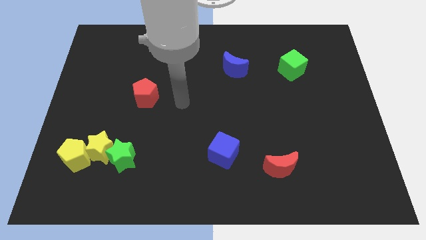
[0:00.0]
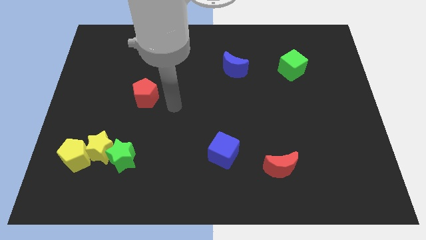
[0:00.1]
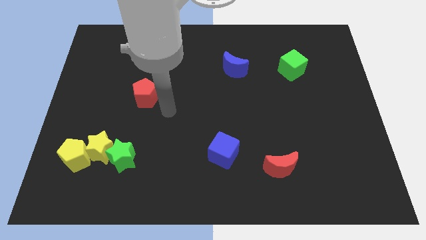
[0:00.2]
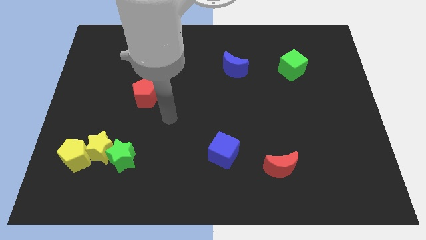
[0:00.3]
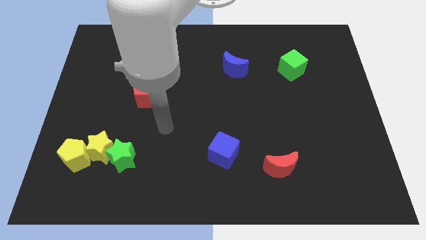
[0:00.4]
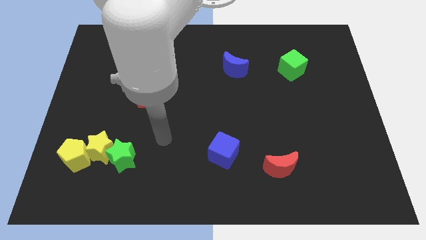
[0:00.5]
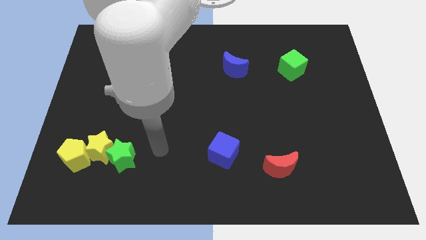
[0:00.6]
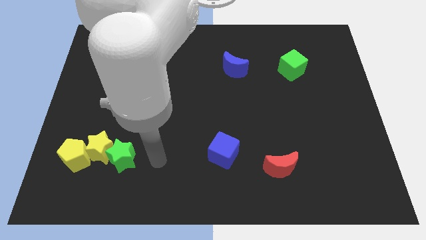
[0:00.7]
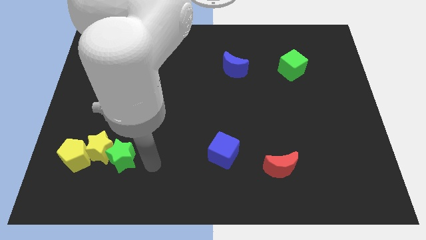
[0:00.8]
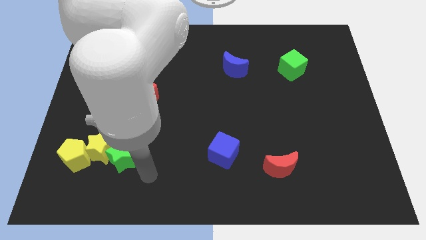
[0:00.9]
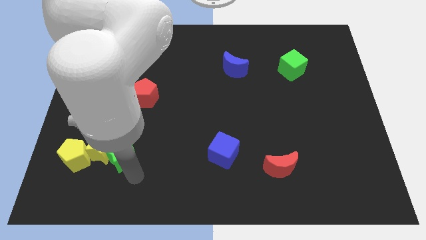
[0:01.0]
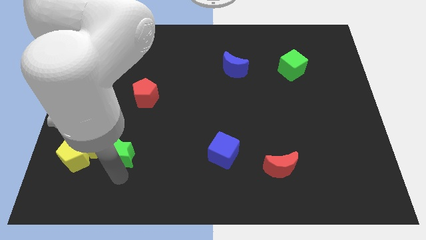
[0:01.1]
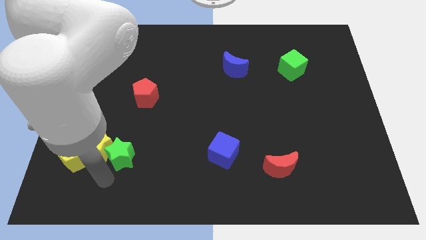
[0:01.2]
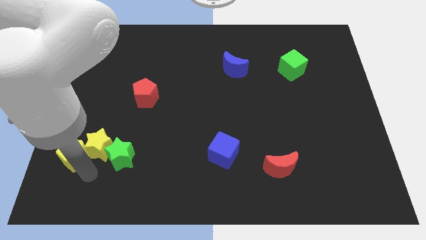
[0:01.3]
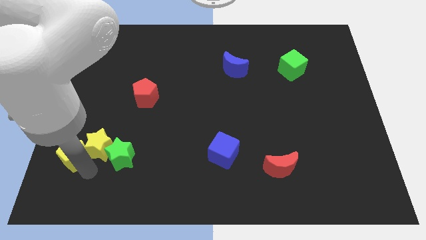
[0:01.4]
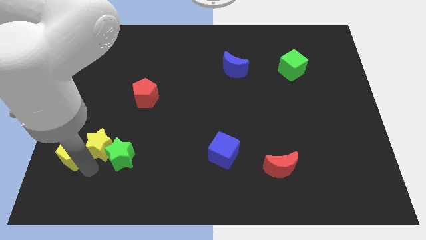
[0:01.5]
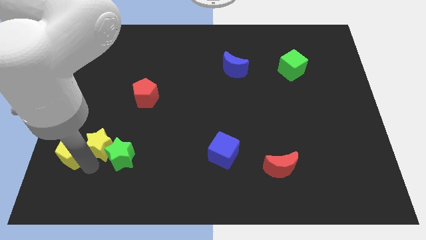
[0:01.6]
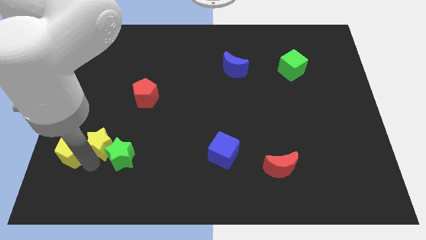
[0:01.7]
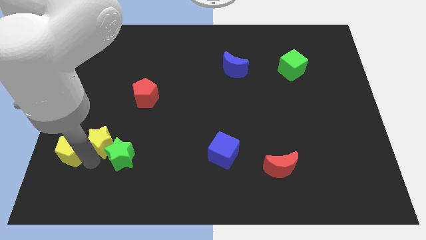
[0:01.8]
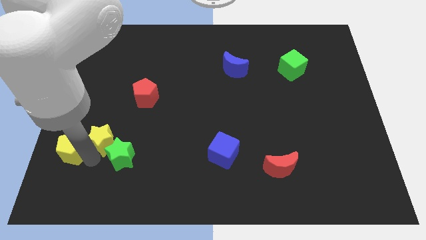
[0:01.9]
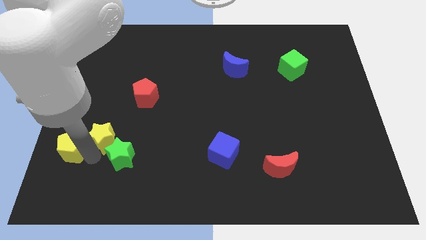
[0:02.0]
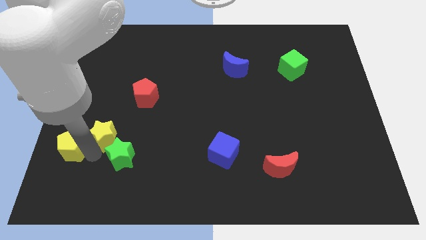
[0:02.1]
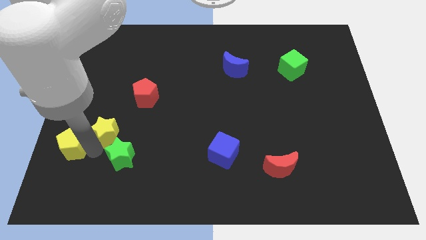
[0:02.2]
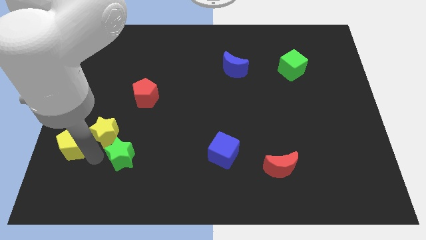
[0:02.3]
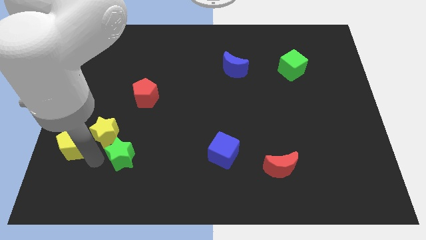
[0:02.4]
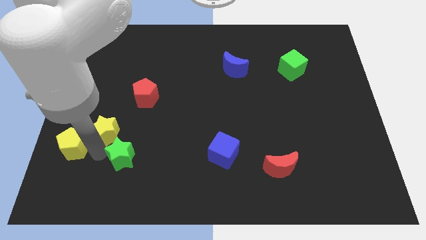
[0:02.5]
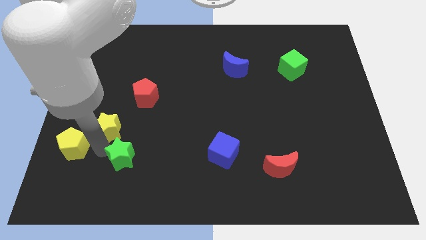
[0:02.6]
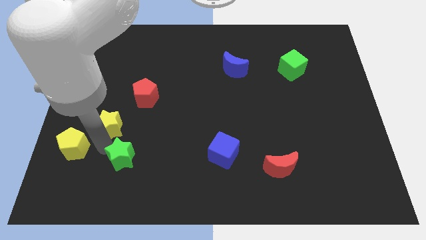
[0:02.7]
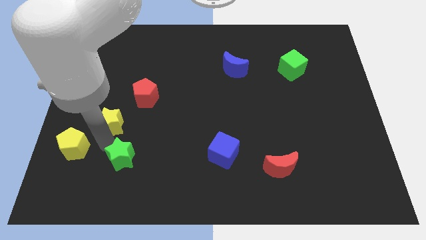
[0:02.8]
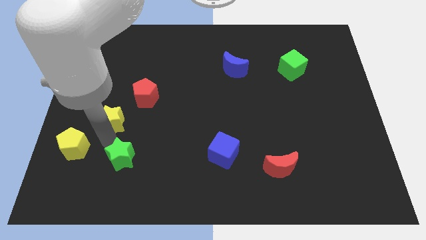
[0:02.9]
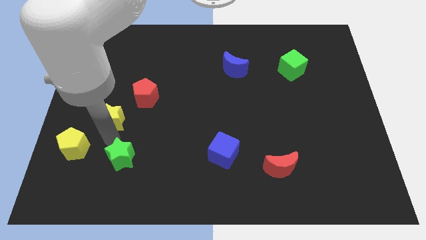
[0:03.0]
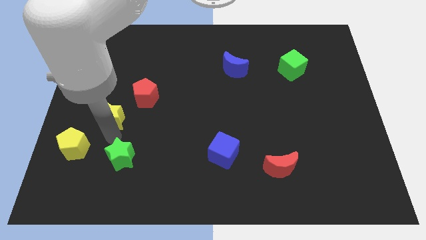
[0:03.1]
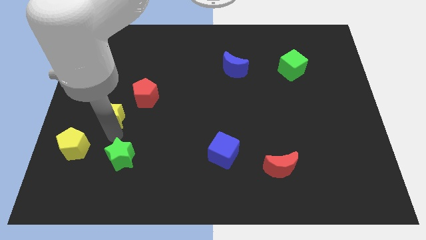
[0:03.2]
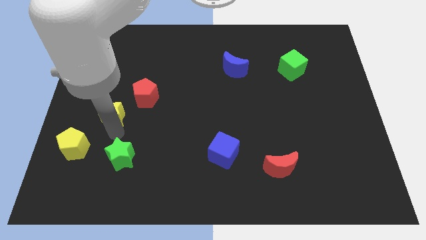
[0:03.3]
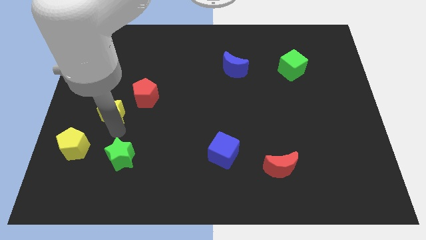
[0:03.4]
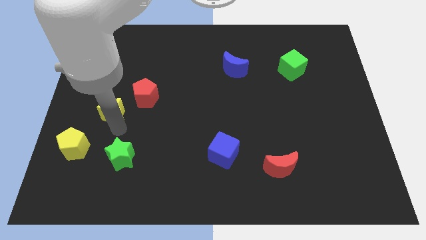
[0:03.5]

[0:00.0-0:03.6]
separate the yellow star from the green star and yellow pentagon

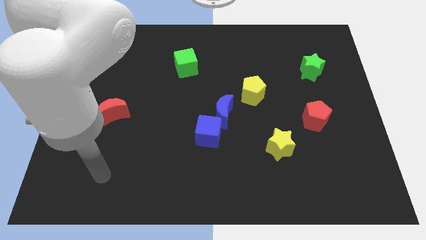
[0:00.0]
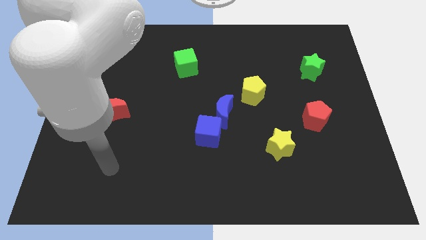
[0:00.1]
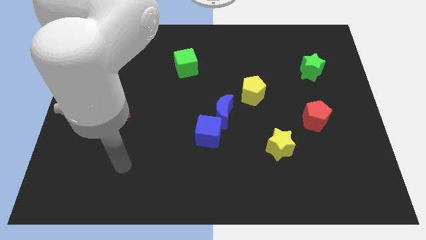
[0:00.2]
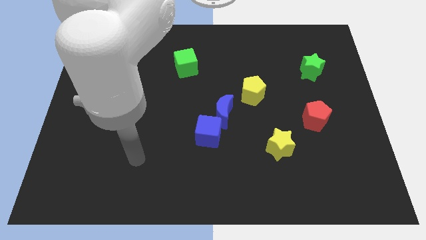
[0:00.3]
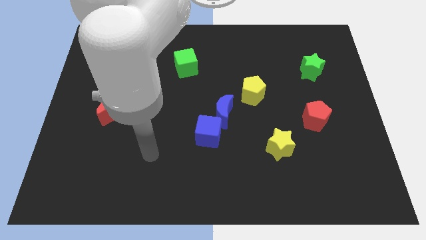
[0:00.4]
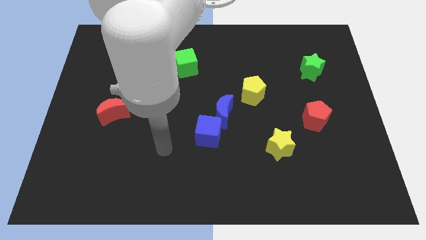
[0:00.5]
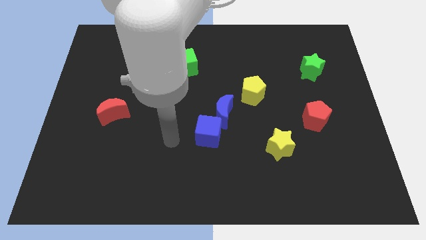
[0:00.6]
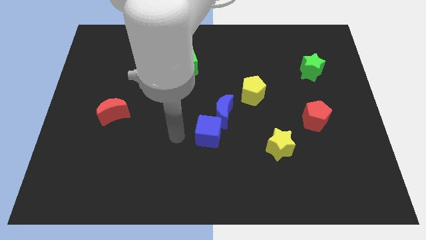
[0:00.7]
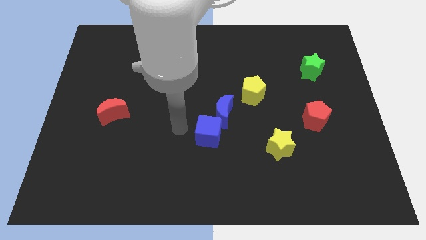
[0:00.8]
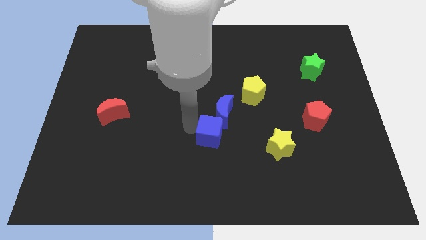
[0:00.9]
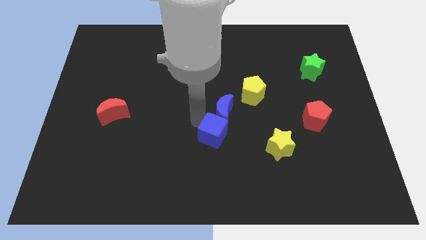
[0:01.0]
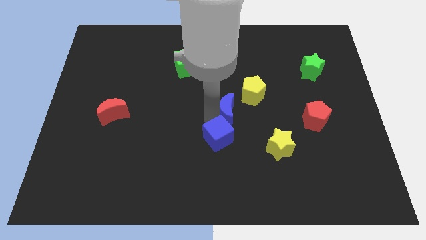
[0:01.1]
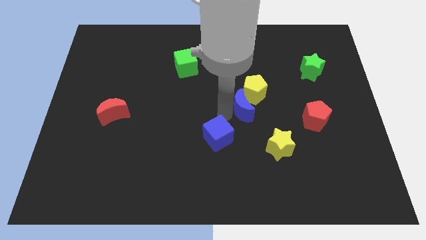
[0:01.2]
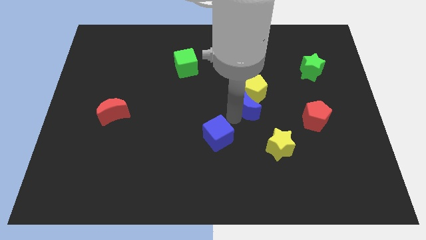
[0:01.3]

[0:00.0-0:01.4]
separate the blue cube from the blue moon

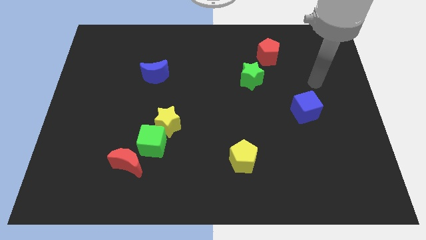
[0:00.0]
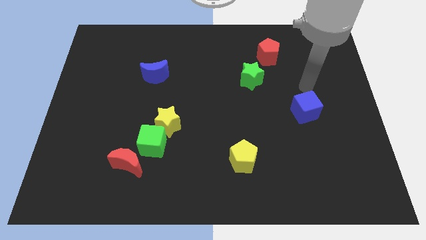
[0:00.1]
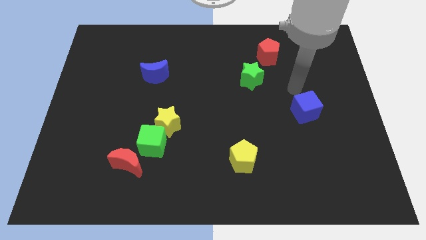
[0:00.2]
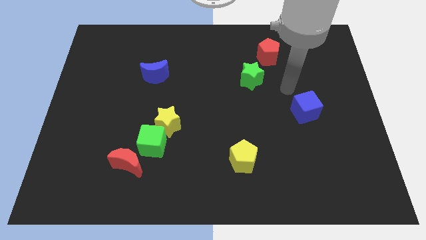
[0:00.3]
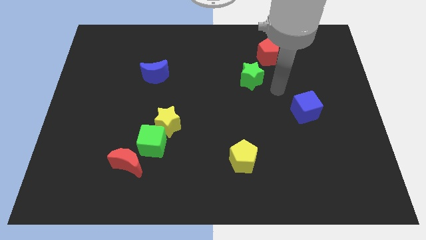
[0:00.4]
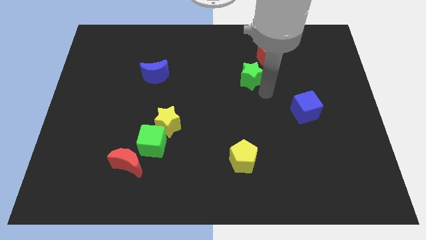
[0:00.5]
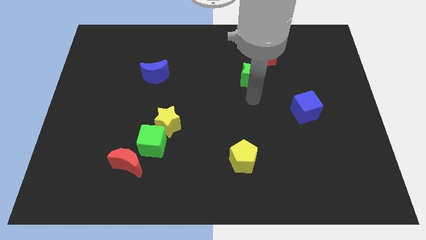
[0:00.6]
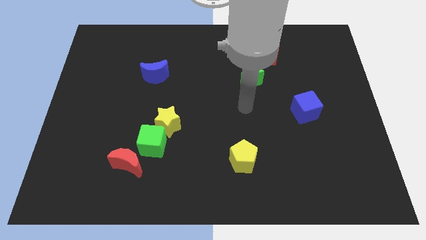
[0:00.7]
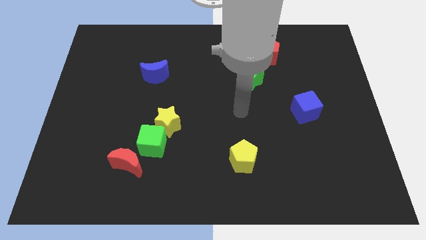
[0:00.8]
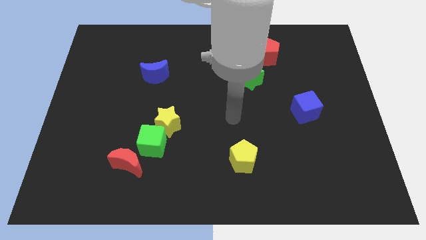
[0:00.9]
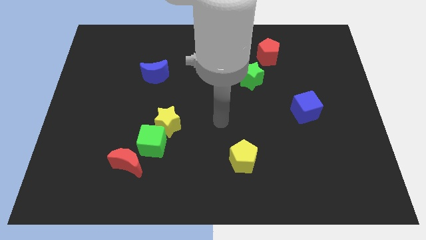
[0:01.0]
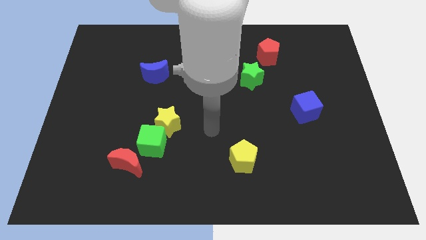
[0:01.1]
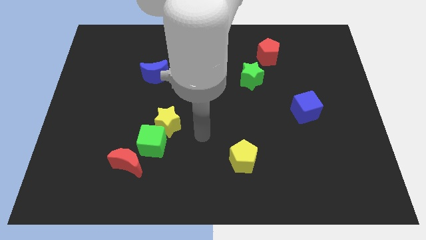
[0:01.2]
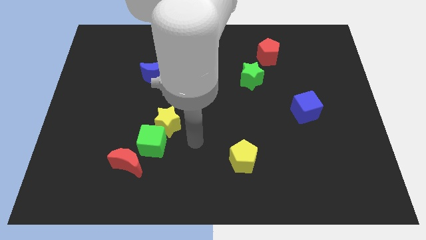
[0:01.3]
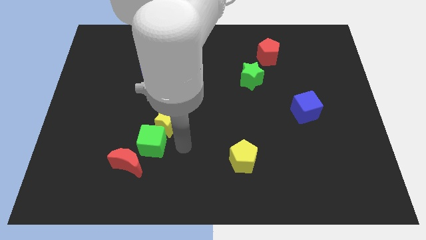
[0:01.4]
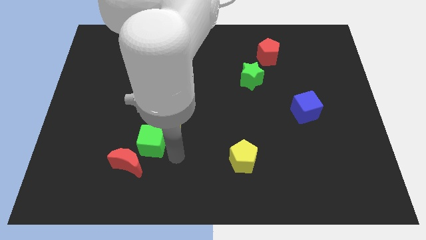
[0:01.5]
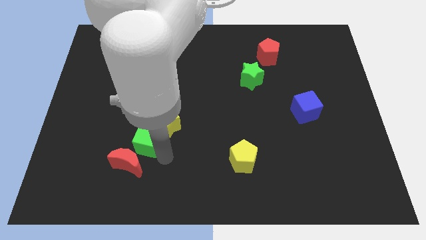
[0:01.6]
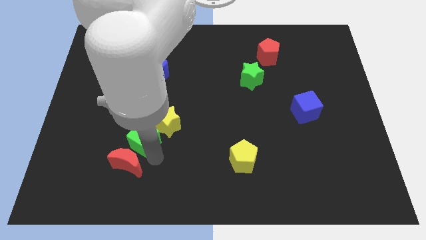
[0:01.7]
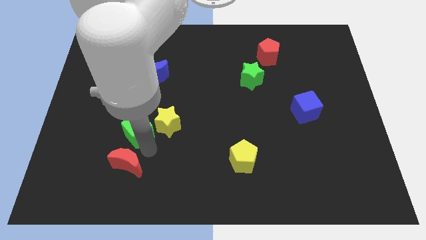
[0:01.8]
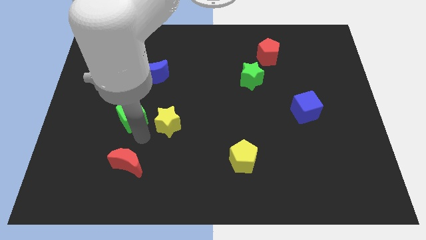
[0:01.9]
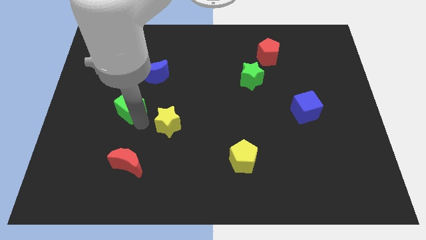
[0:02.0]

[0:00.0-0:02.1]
pull the yellow star apart from the green cube

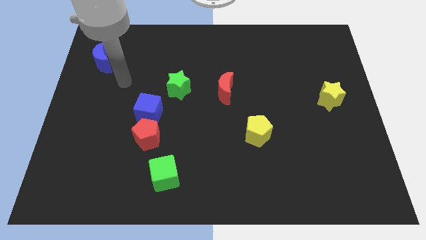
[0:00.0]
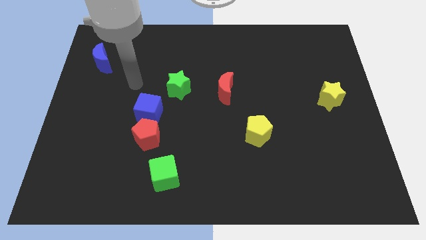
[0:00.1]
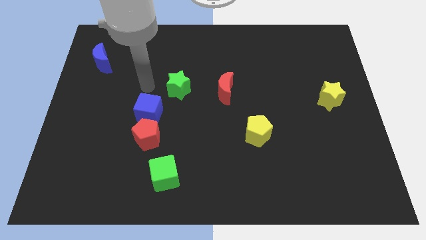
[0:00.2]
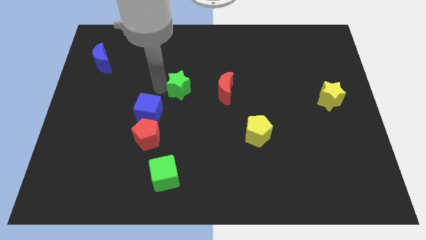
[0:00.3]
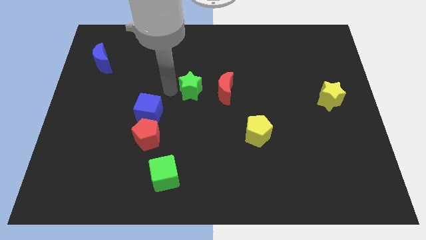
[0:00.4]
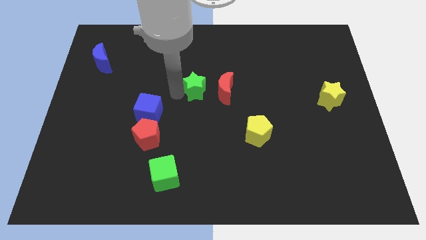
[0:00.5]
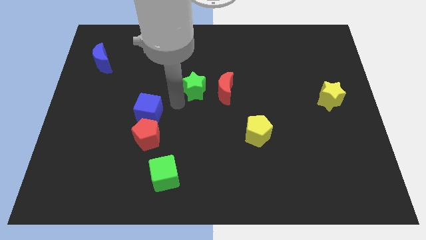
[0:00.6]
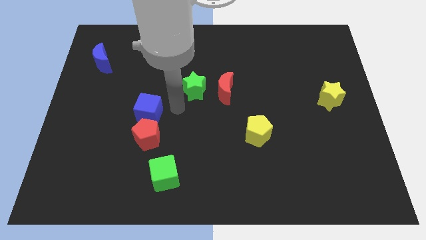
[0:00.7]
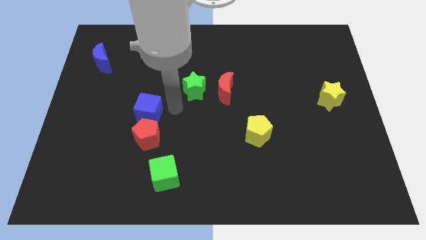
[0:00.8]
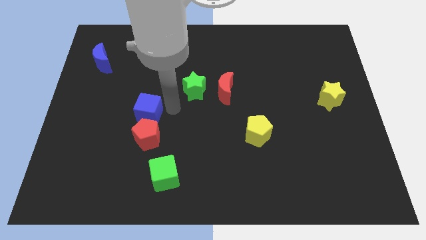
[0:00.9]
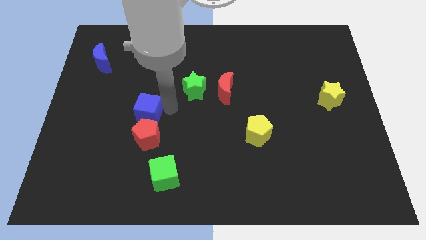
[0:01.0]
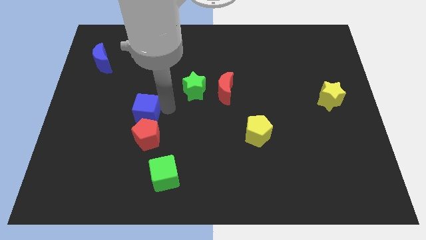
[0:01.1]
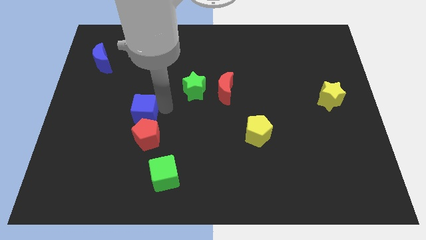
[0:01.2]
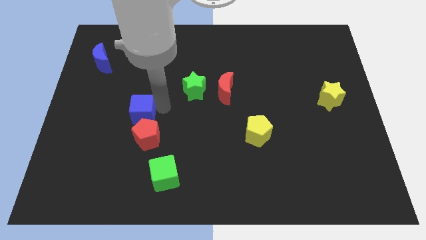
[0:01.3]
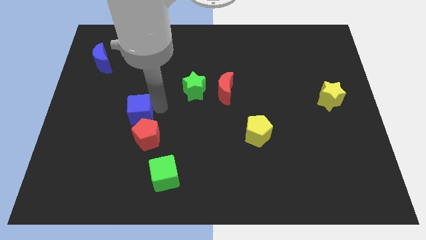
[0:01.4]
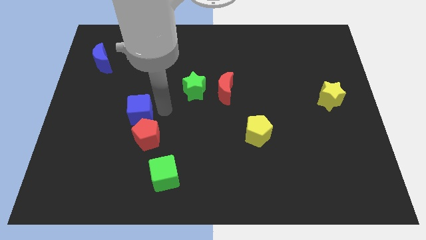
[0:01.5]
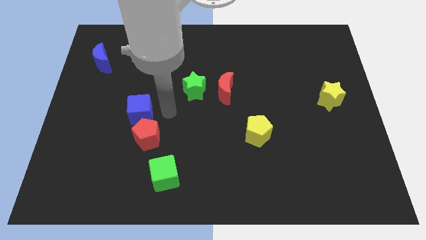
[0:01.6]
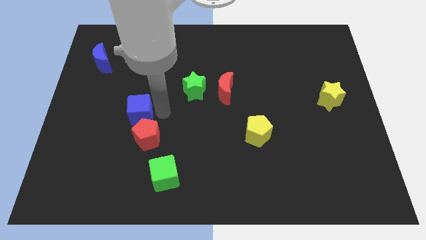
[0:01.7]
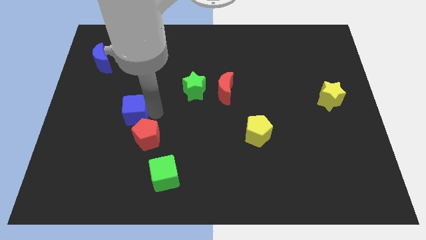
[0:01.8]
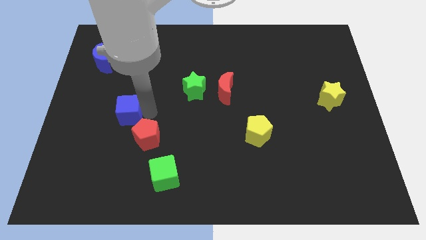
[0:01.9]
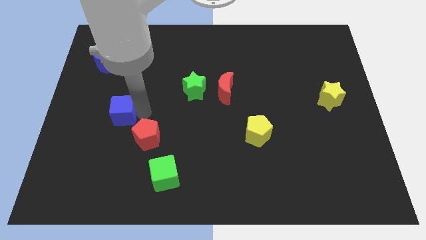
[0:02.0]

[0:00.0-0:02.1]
move the blue cube away from the red pentagon and green star

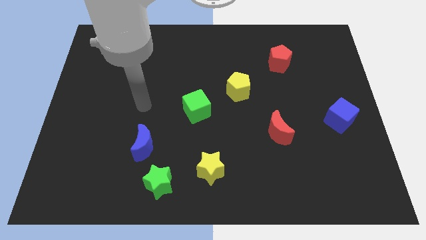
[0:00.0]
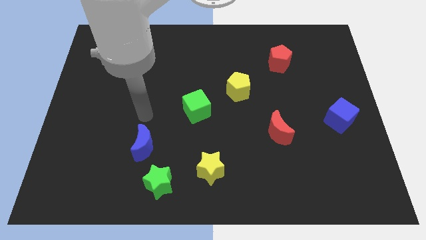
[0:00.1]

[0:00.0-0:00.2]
pull the blue moon apart from the green star
